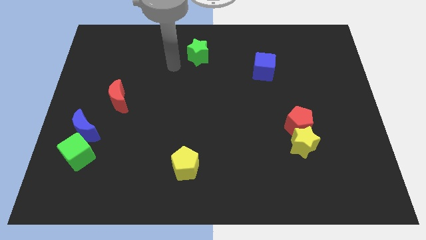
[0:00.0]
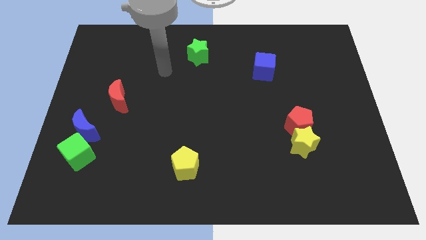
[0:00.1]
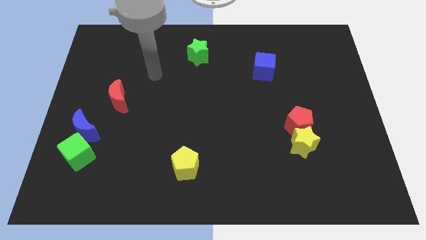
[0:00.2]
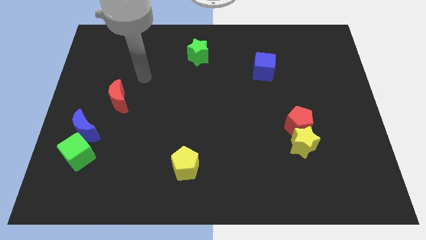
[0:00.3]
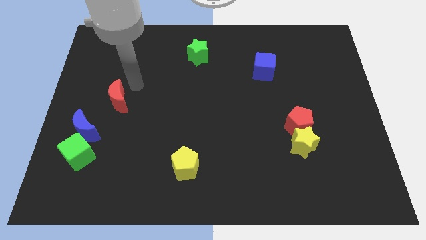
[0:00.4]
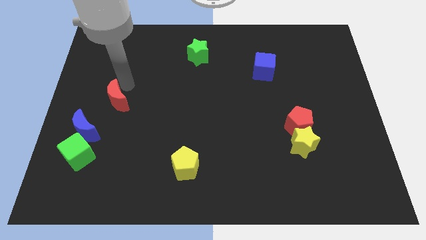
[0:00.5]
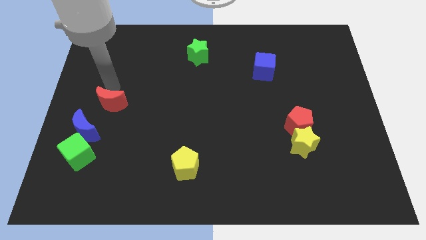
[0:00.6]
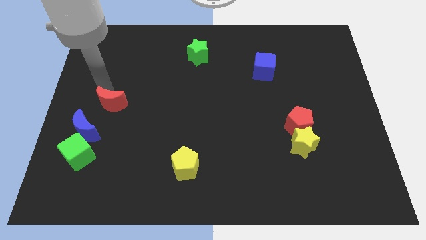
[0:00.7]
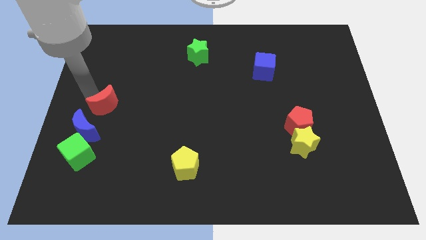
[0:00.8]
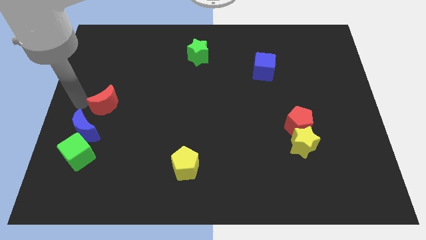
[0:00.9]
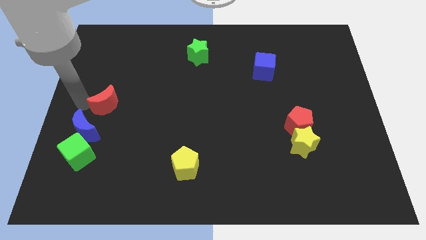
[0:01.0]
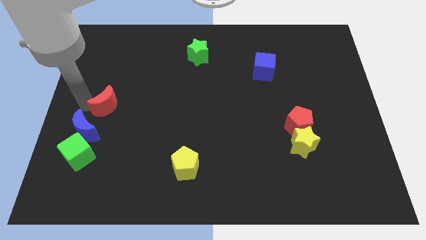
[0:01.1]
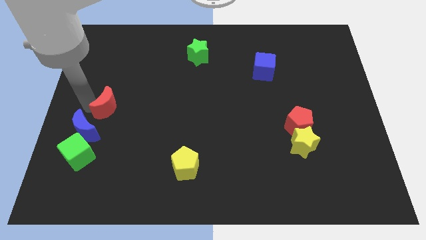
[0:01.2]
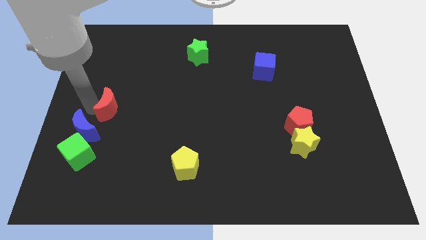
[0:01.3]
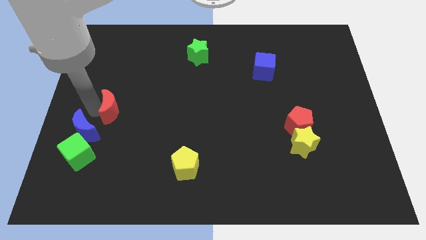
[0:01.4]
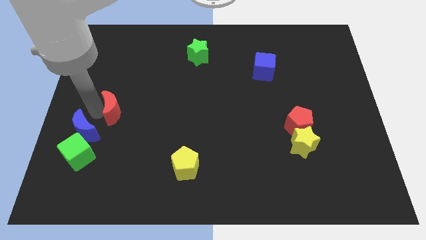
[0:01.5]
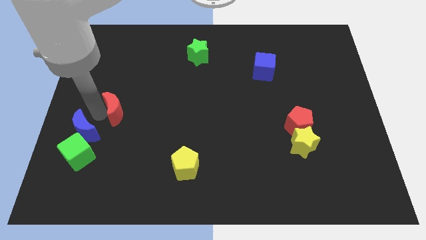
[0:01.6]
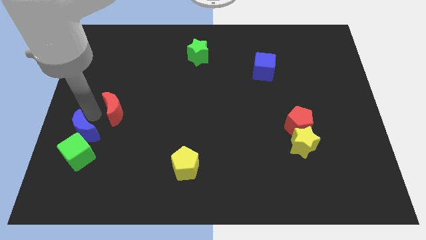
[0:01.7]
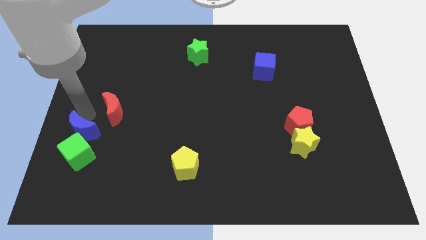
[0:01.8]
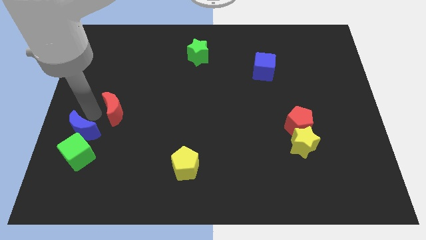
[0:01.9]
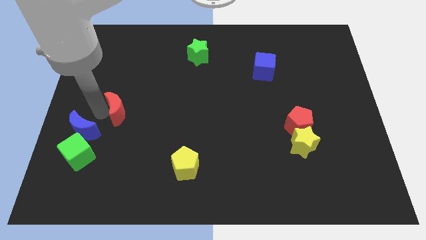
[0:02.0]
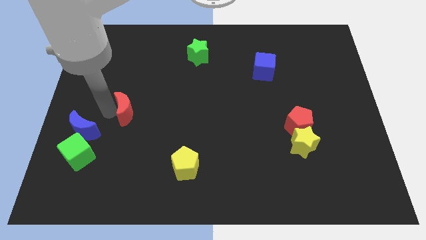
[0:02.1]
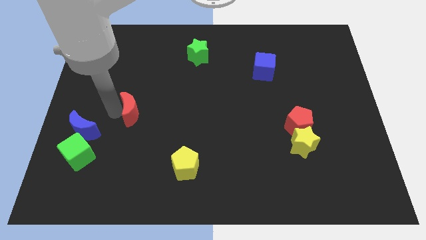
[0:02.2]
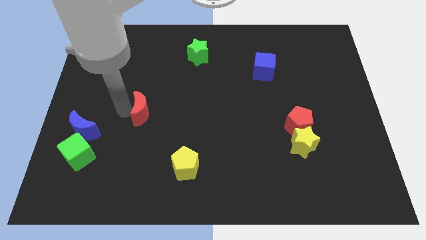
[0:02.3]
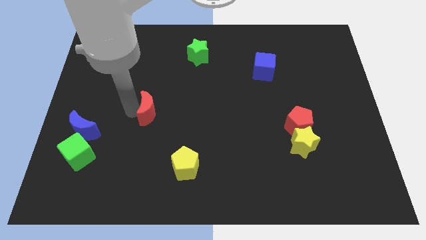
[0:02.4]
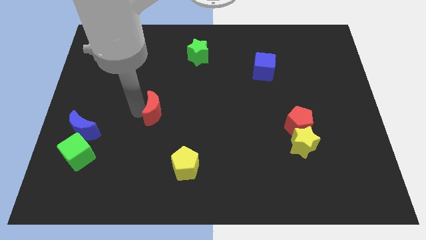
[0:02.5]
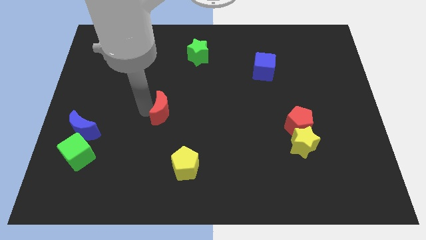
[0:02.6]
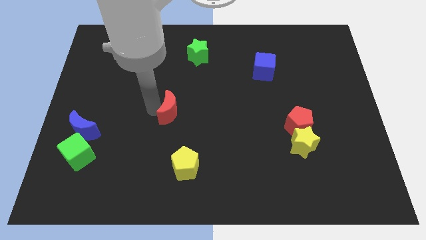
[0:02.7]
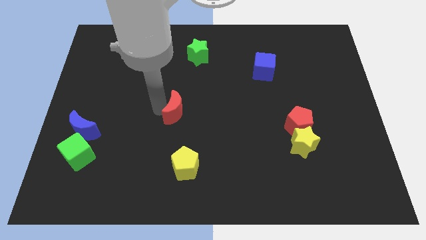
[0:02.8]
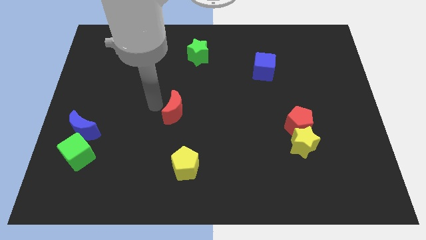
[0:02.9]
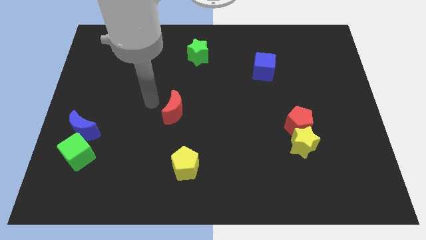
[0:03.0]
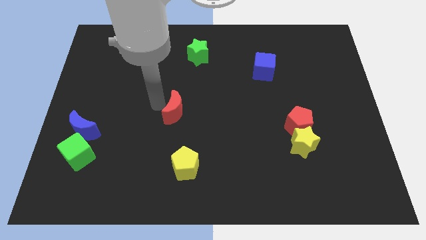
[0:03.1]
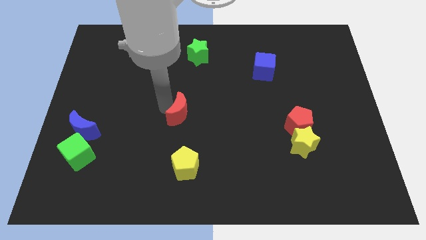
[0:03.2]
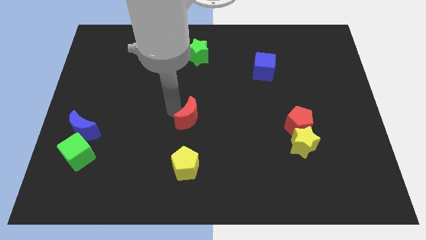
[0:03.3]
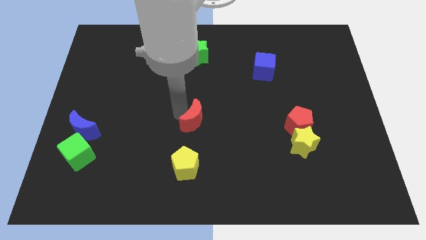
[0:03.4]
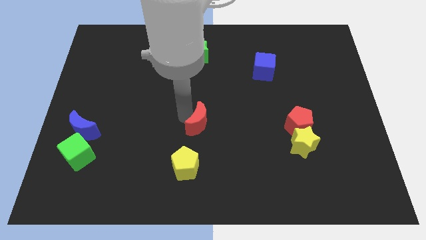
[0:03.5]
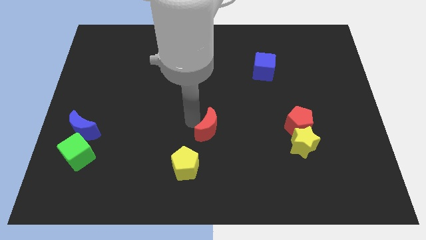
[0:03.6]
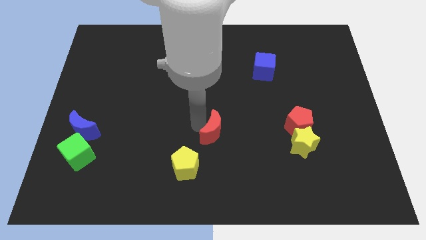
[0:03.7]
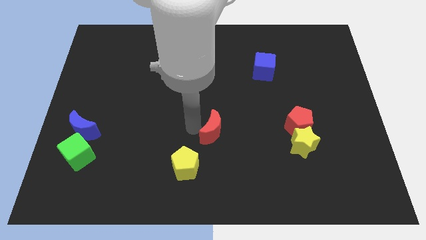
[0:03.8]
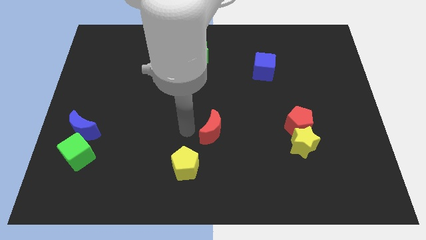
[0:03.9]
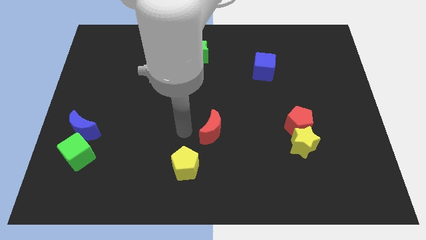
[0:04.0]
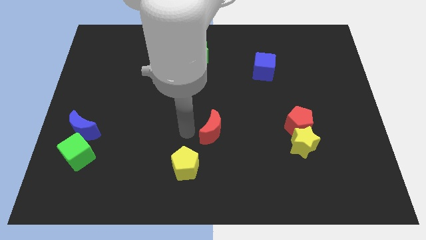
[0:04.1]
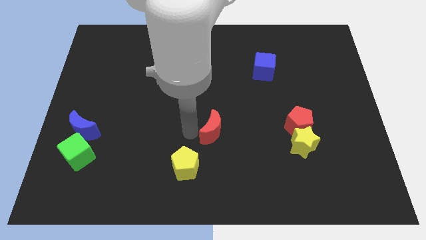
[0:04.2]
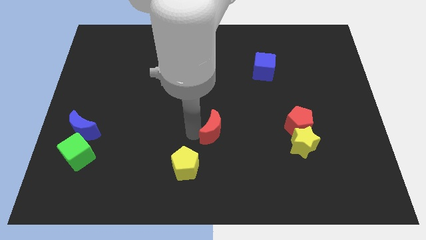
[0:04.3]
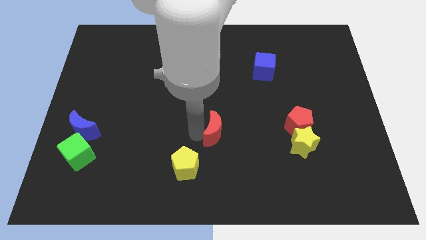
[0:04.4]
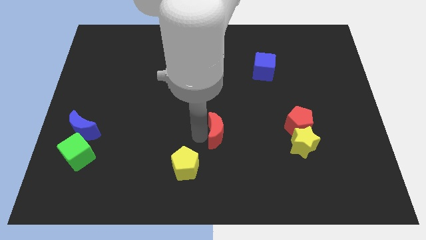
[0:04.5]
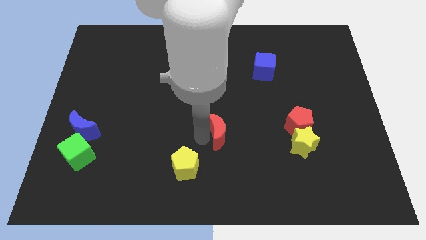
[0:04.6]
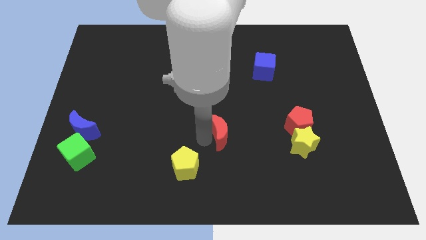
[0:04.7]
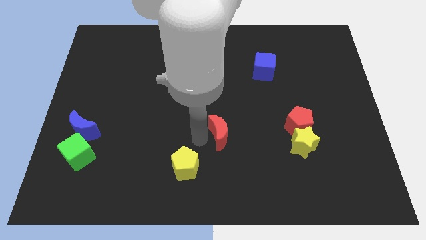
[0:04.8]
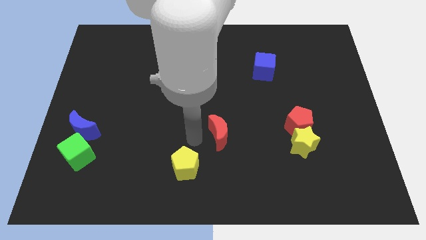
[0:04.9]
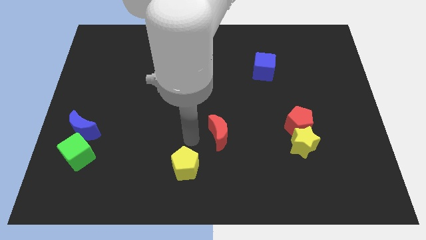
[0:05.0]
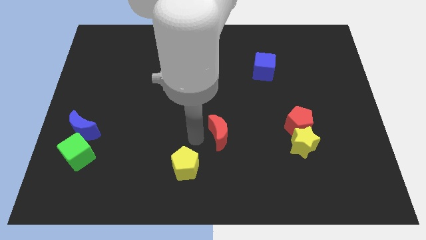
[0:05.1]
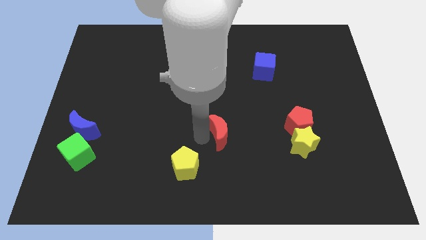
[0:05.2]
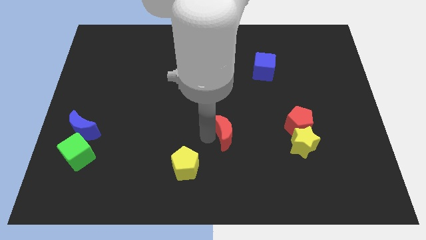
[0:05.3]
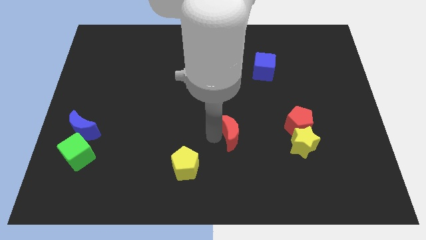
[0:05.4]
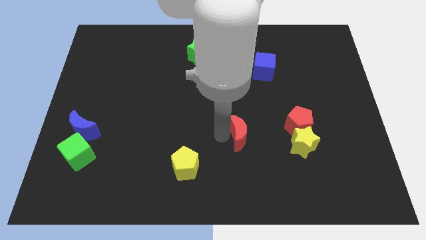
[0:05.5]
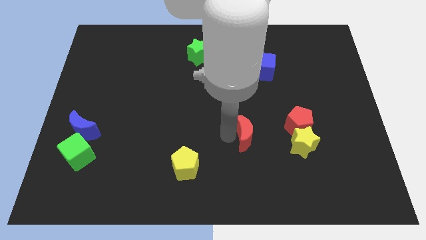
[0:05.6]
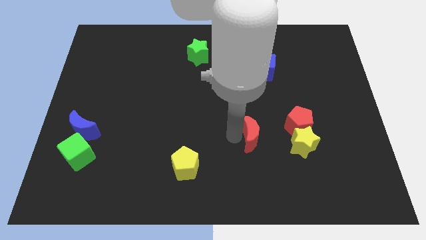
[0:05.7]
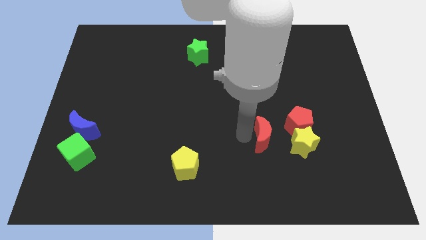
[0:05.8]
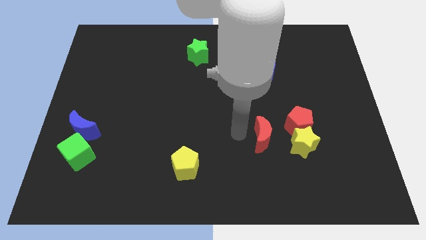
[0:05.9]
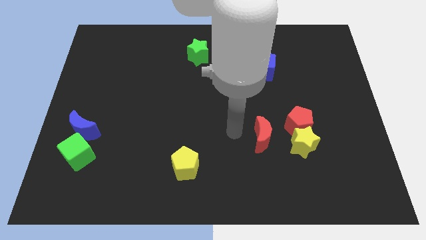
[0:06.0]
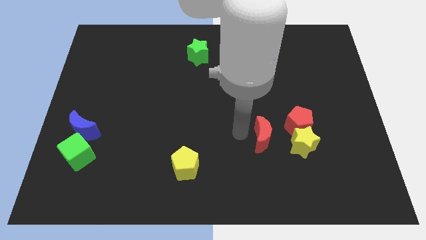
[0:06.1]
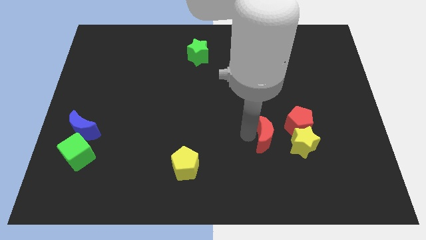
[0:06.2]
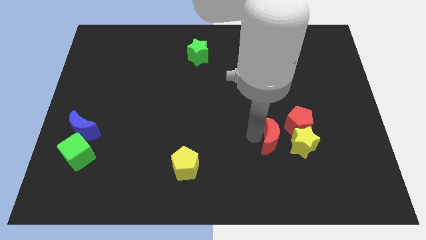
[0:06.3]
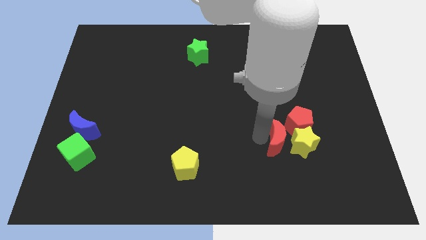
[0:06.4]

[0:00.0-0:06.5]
move the red moon close to the yellow star

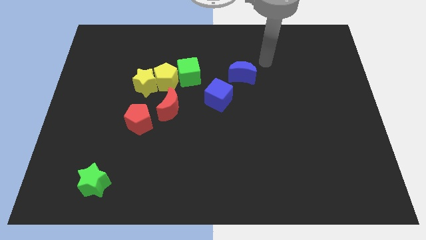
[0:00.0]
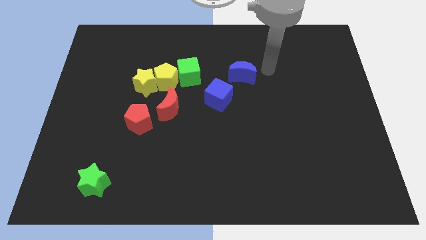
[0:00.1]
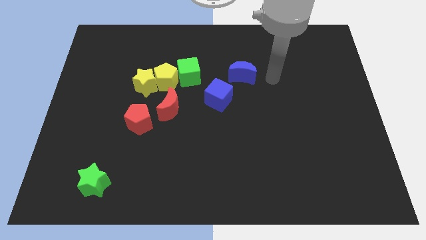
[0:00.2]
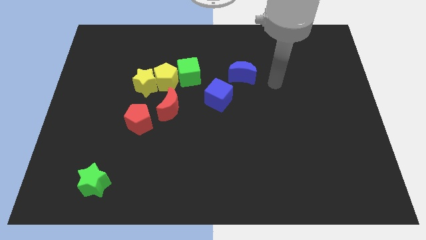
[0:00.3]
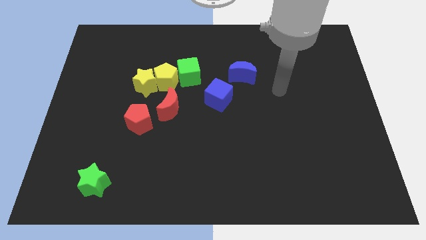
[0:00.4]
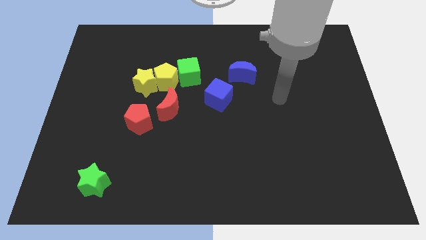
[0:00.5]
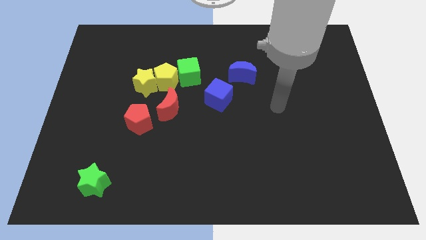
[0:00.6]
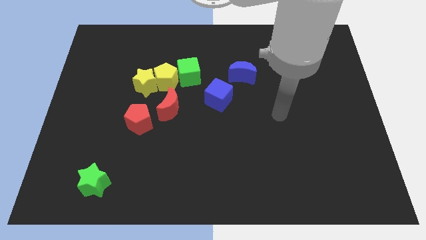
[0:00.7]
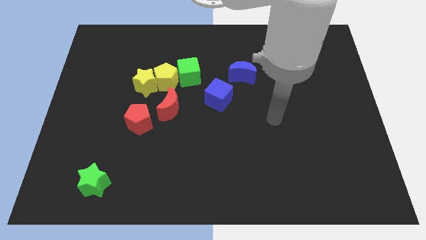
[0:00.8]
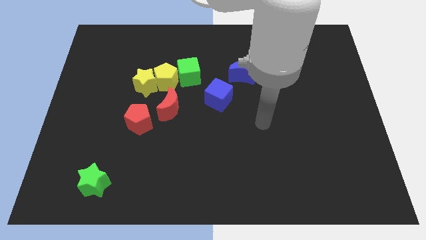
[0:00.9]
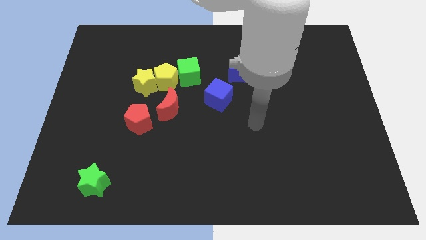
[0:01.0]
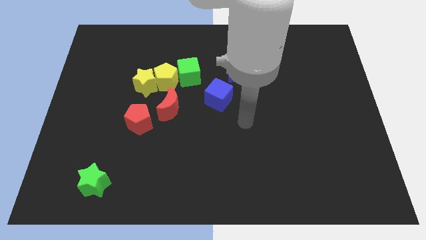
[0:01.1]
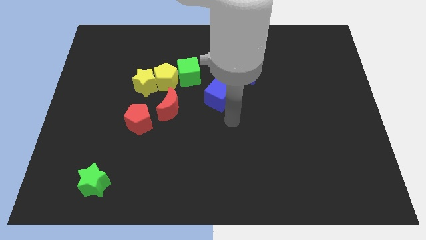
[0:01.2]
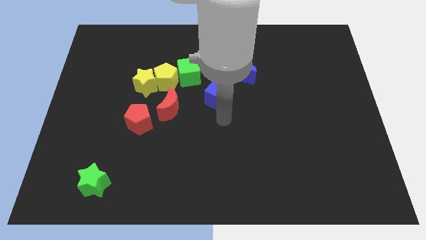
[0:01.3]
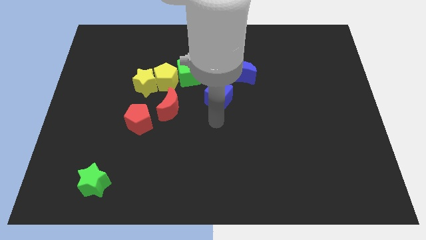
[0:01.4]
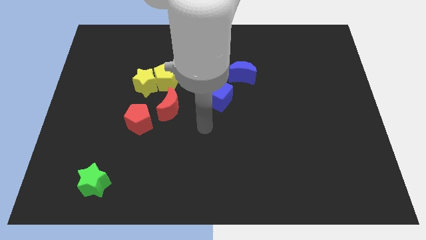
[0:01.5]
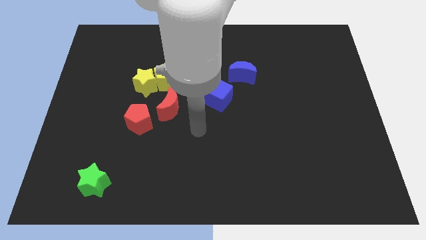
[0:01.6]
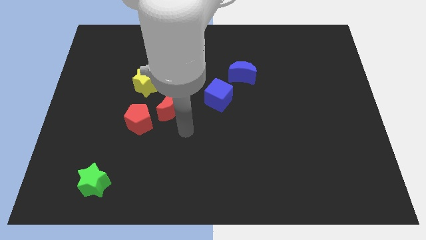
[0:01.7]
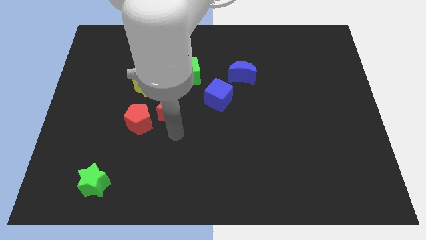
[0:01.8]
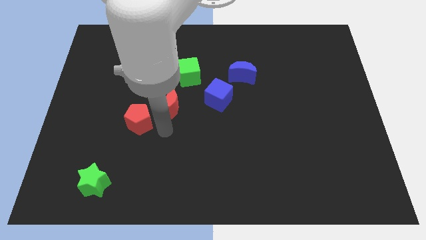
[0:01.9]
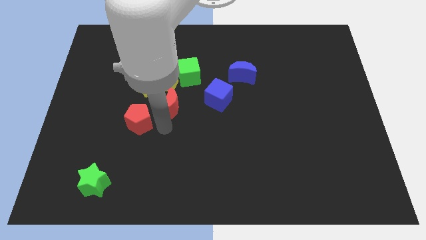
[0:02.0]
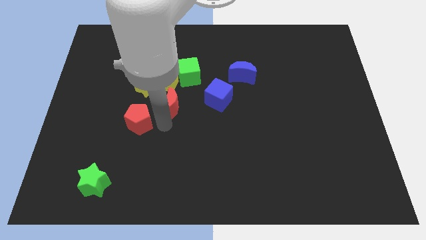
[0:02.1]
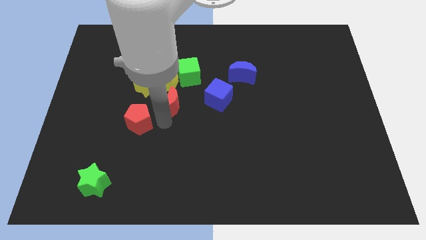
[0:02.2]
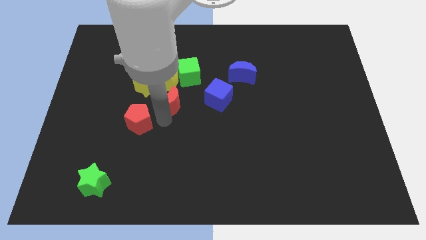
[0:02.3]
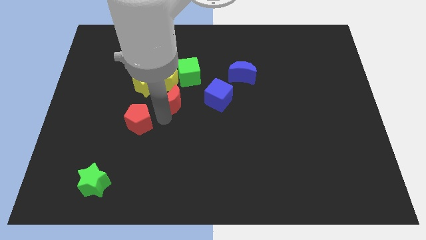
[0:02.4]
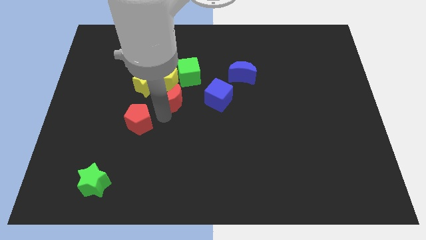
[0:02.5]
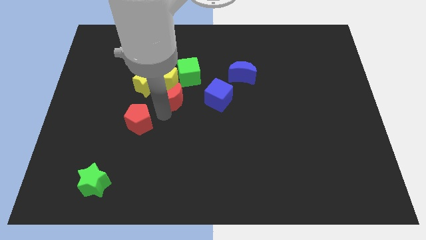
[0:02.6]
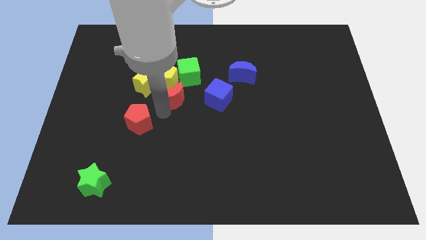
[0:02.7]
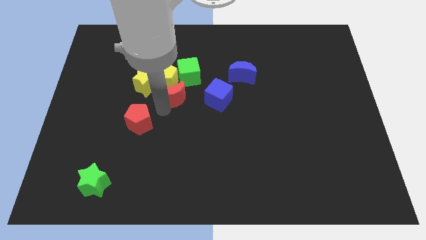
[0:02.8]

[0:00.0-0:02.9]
move the red moon close to the yellow pentagon
